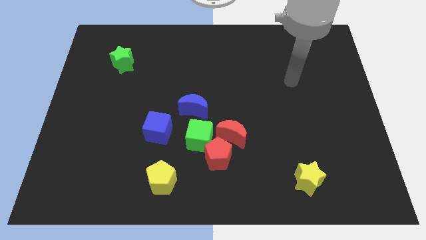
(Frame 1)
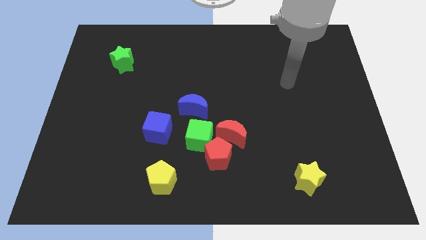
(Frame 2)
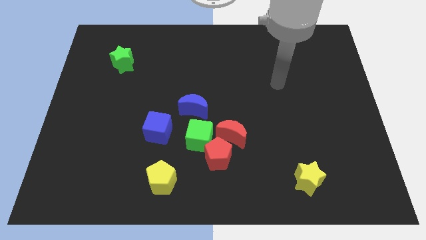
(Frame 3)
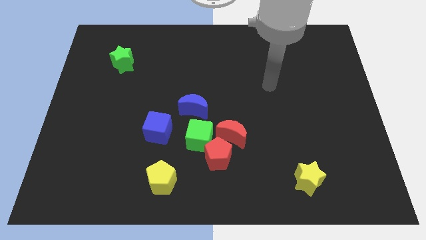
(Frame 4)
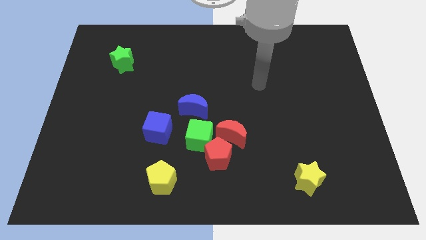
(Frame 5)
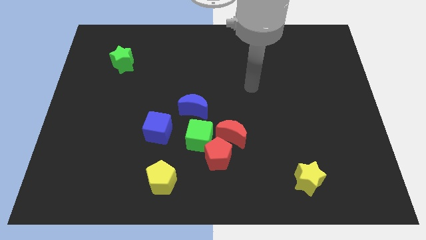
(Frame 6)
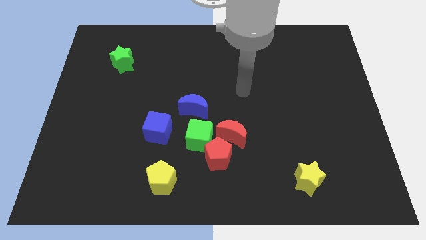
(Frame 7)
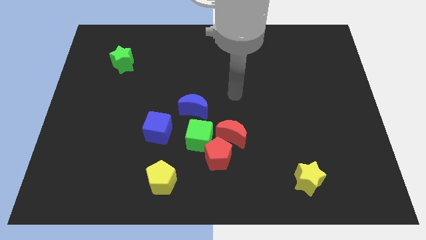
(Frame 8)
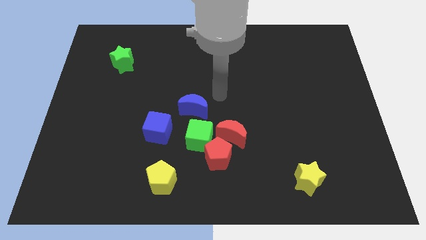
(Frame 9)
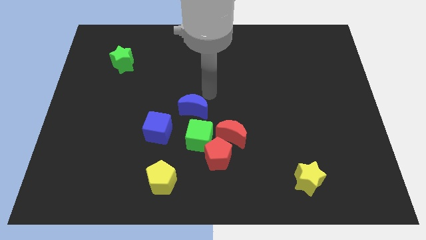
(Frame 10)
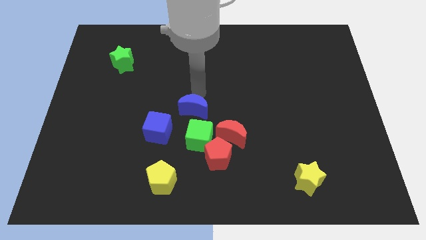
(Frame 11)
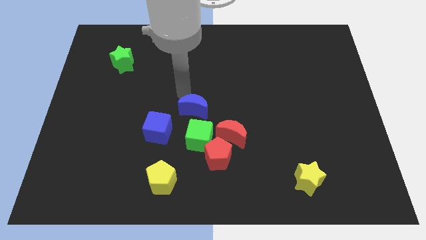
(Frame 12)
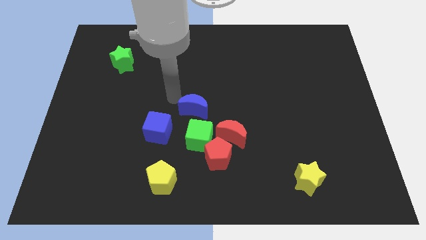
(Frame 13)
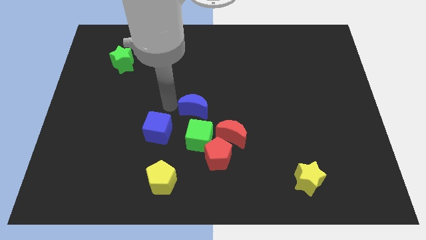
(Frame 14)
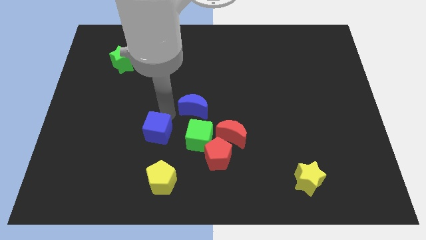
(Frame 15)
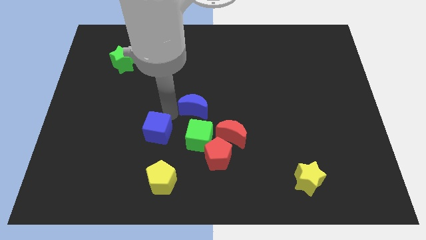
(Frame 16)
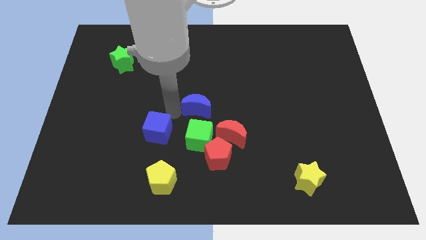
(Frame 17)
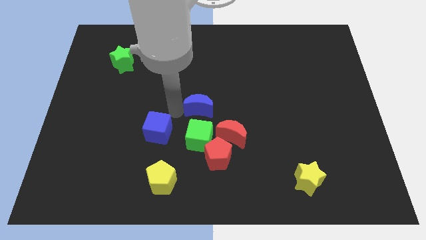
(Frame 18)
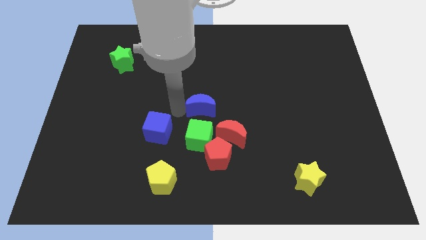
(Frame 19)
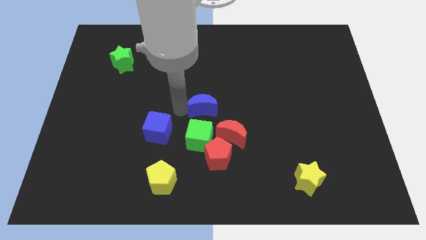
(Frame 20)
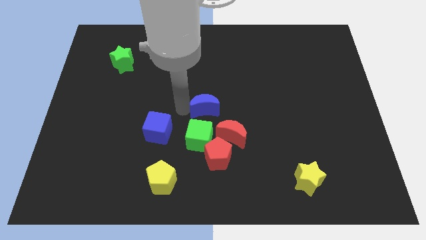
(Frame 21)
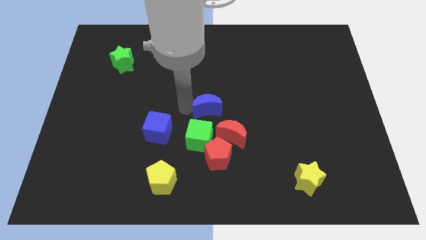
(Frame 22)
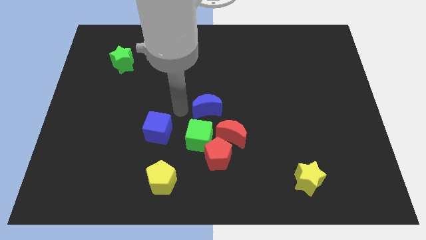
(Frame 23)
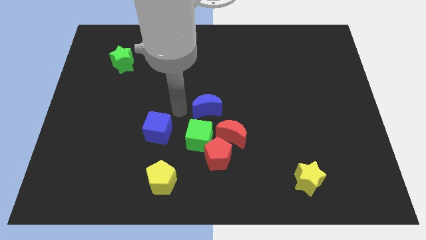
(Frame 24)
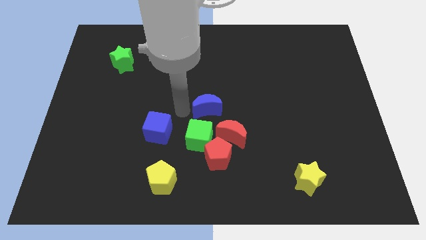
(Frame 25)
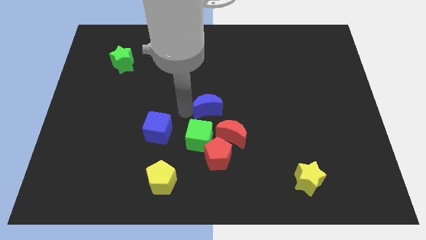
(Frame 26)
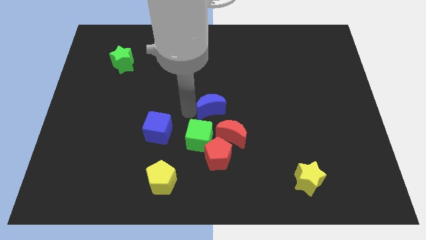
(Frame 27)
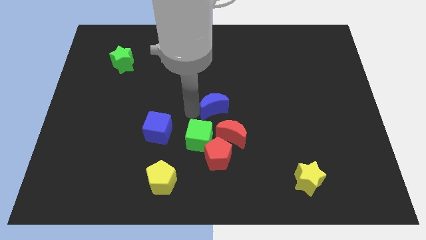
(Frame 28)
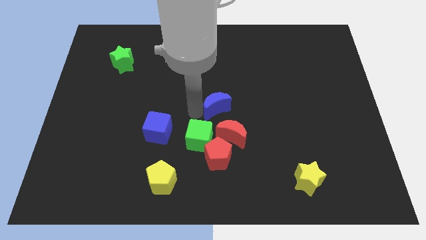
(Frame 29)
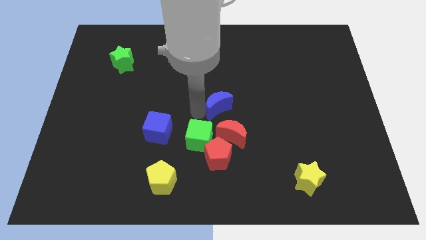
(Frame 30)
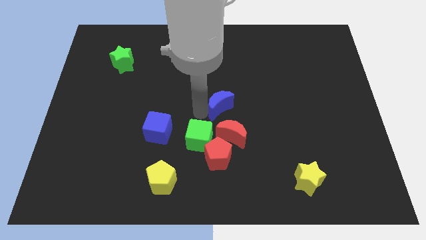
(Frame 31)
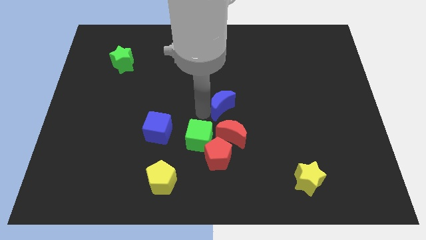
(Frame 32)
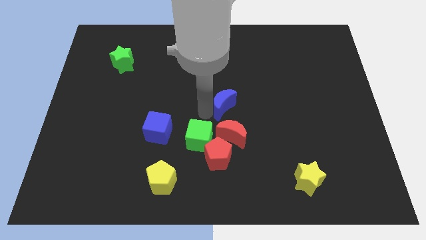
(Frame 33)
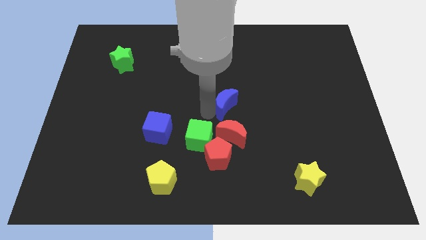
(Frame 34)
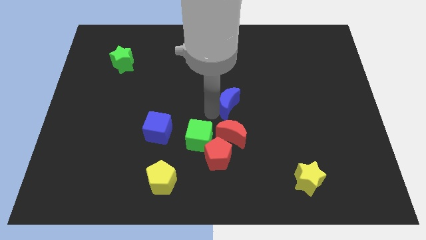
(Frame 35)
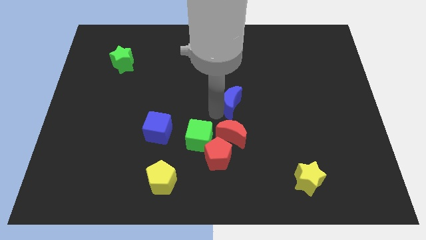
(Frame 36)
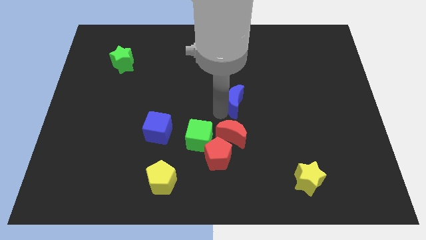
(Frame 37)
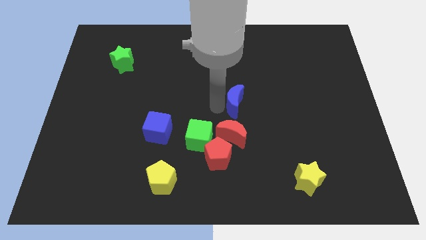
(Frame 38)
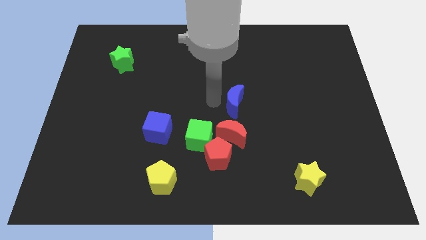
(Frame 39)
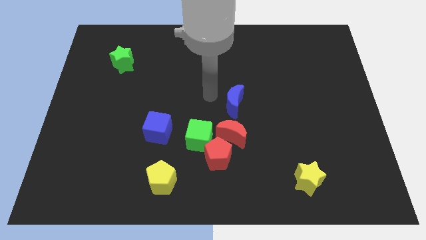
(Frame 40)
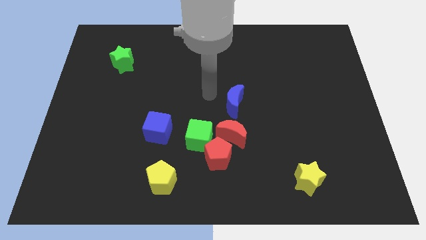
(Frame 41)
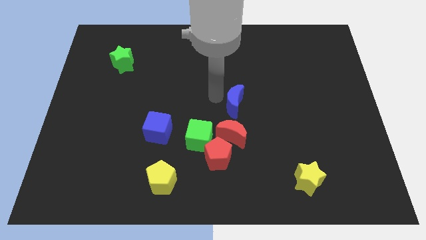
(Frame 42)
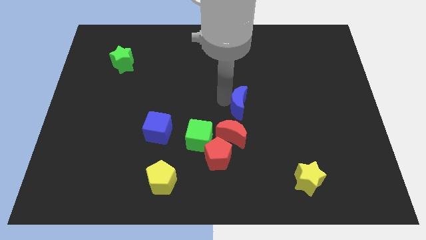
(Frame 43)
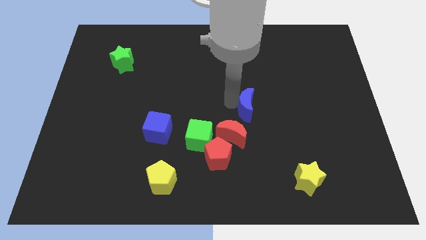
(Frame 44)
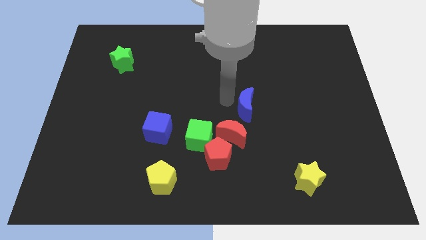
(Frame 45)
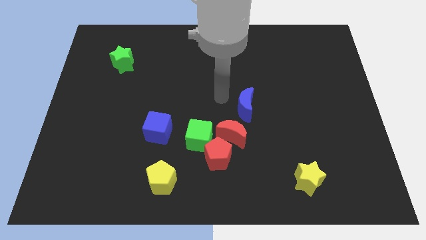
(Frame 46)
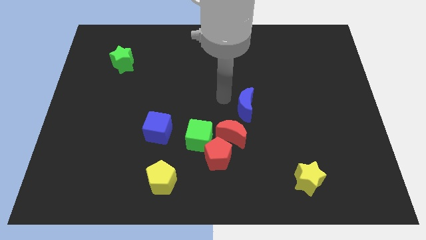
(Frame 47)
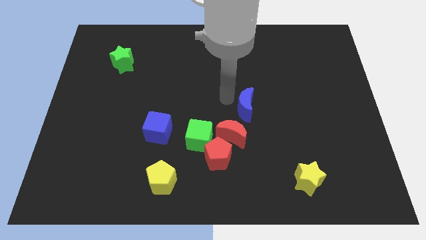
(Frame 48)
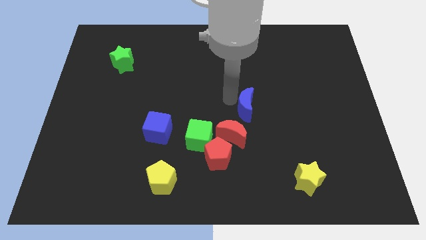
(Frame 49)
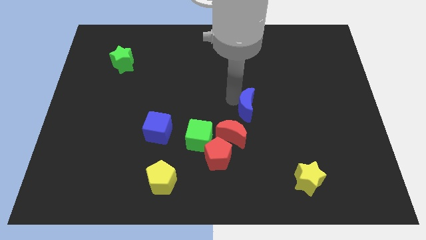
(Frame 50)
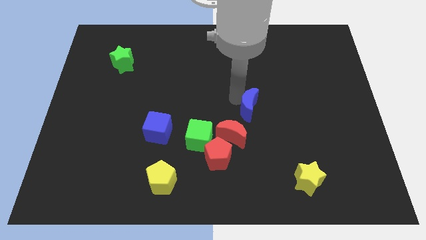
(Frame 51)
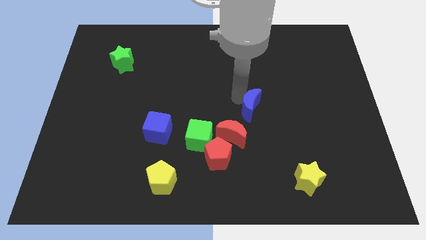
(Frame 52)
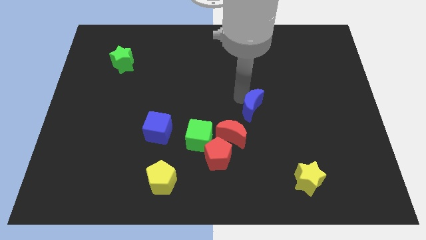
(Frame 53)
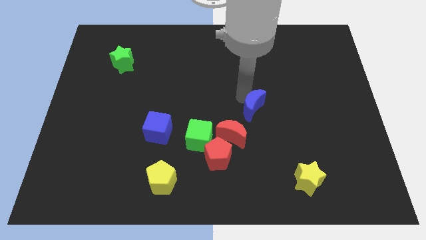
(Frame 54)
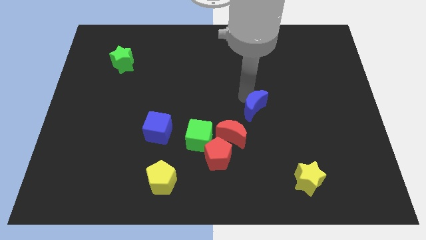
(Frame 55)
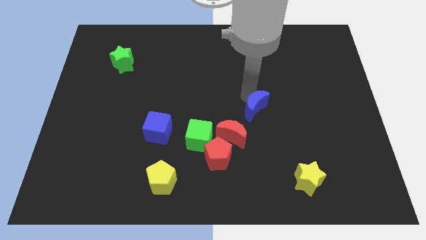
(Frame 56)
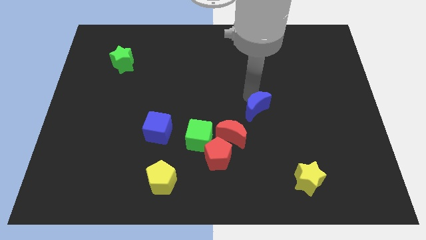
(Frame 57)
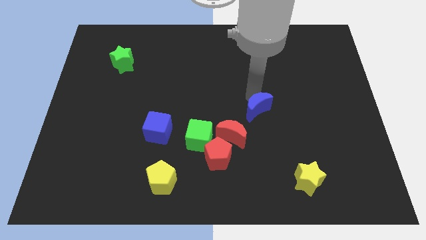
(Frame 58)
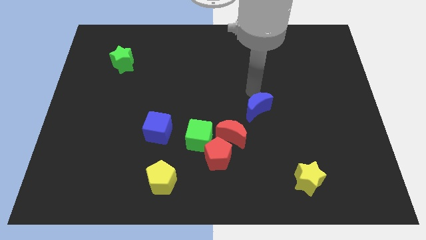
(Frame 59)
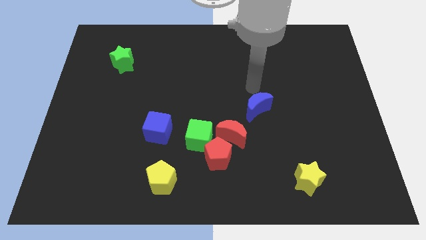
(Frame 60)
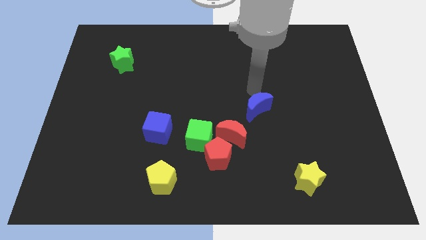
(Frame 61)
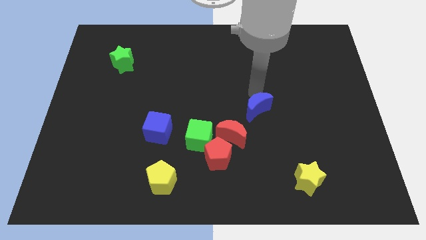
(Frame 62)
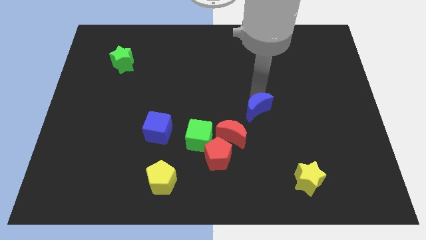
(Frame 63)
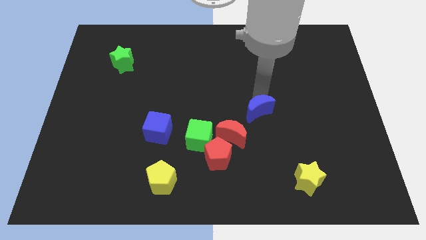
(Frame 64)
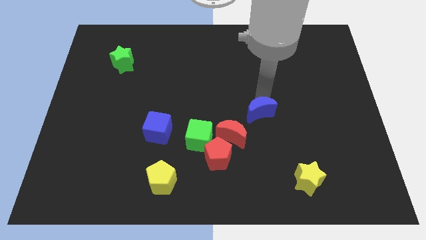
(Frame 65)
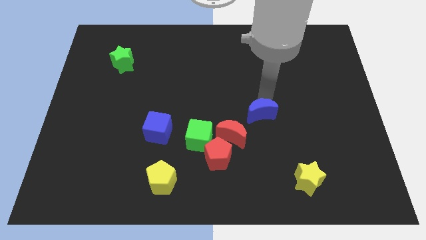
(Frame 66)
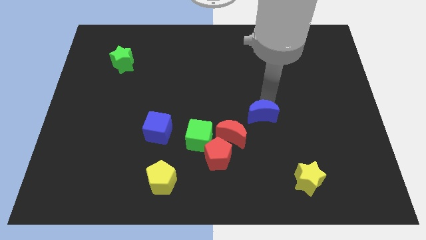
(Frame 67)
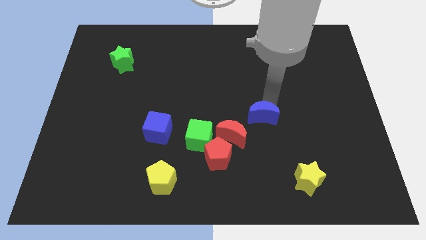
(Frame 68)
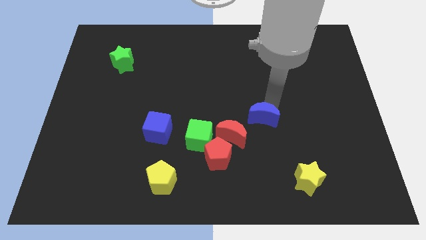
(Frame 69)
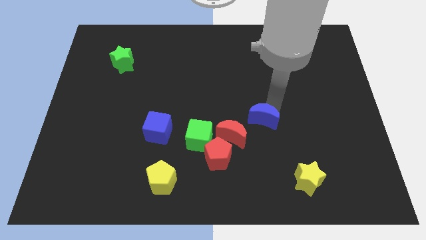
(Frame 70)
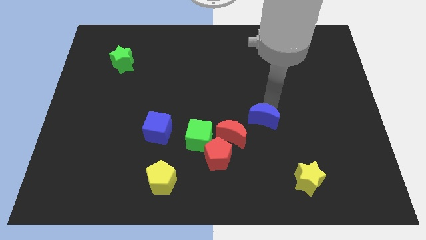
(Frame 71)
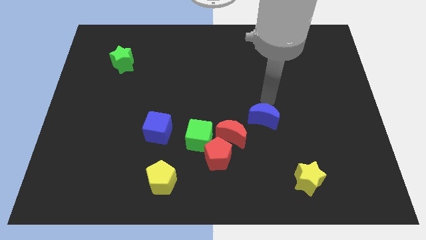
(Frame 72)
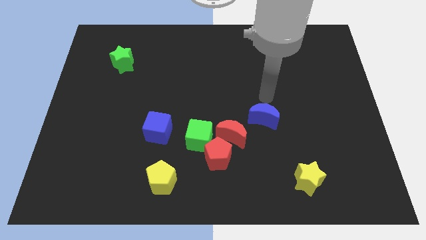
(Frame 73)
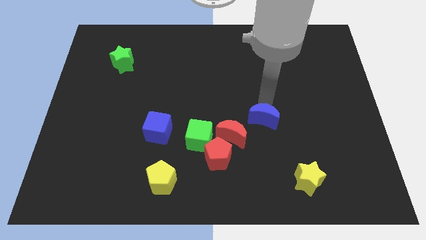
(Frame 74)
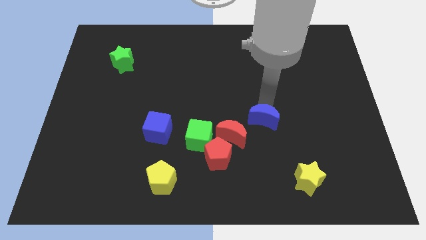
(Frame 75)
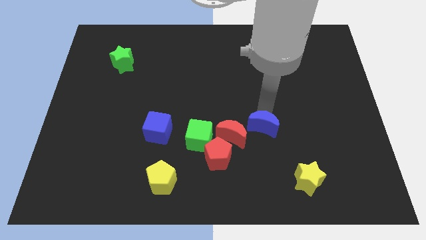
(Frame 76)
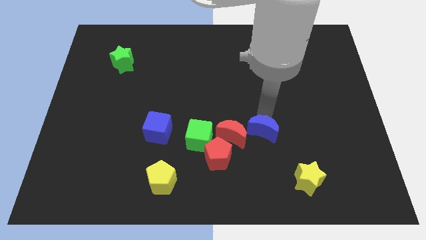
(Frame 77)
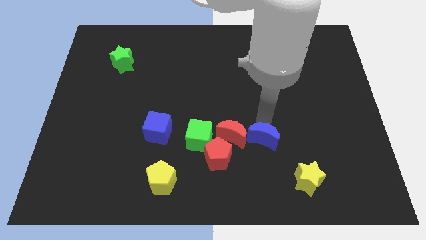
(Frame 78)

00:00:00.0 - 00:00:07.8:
put the blue moon to the right of the red pentagon
